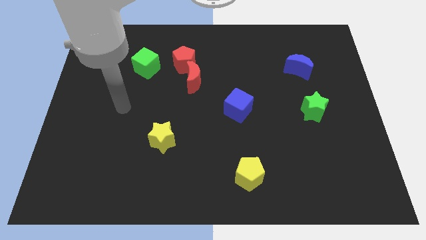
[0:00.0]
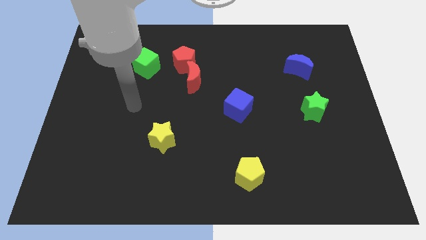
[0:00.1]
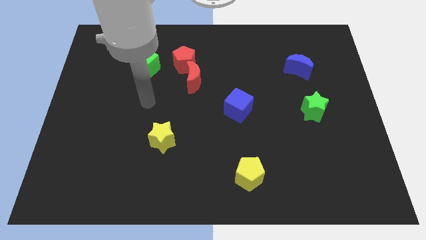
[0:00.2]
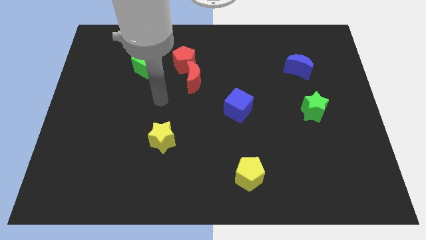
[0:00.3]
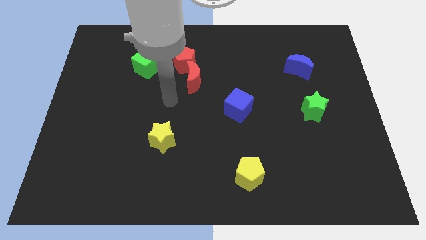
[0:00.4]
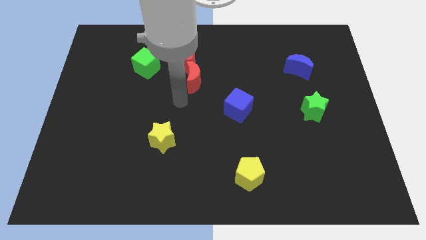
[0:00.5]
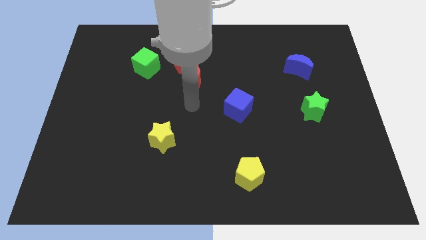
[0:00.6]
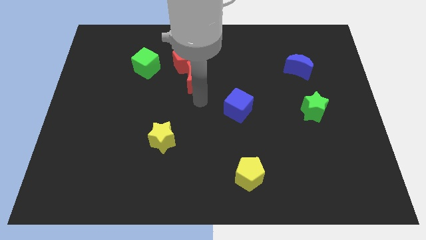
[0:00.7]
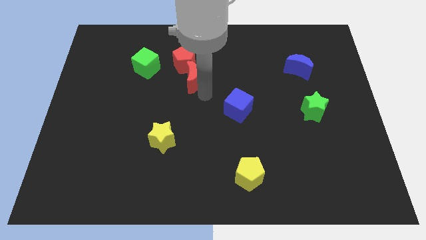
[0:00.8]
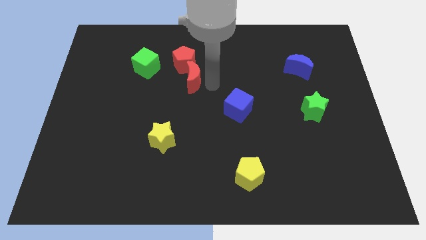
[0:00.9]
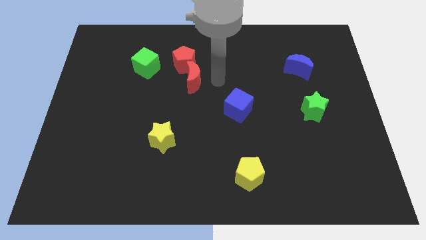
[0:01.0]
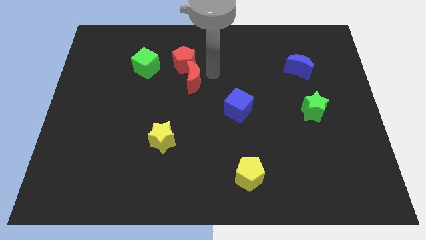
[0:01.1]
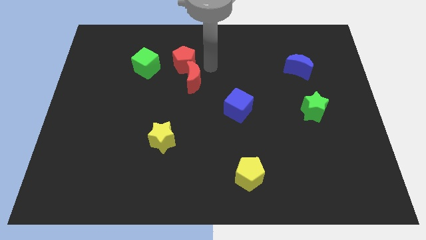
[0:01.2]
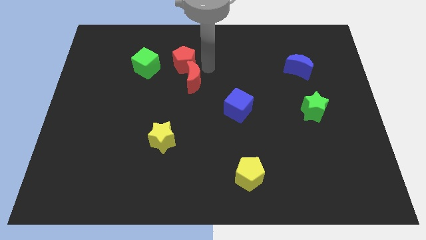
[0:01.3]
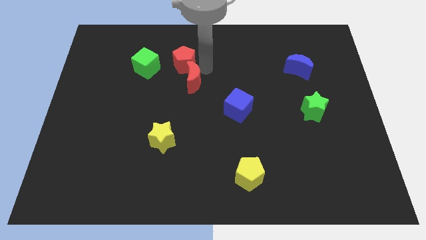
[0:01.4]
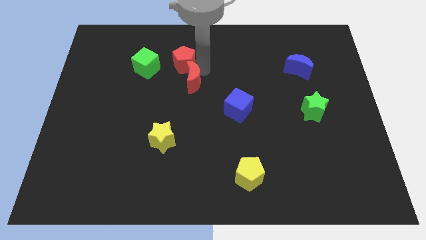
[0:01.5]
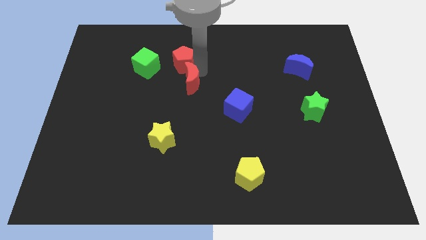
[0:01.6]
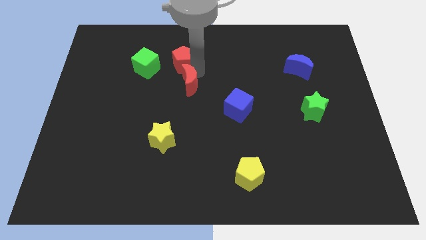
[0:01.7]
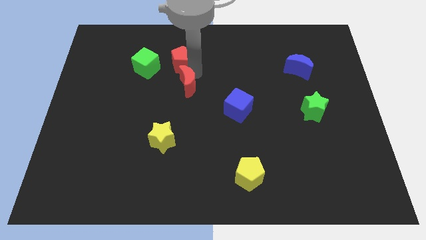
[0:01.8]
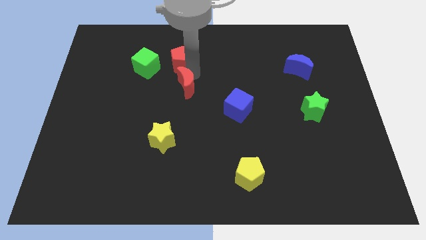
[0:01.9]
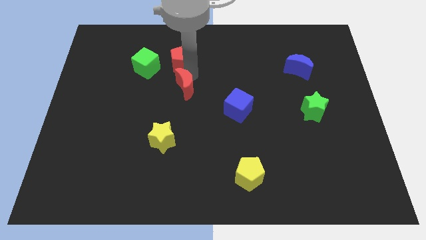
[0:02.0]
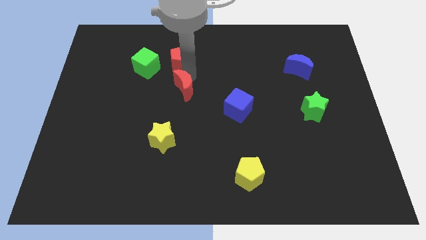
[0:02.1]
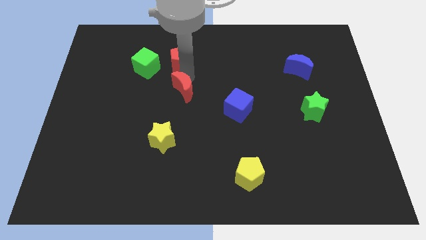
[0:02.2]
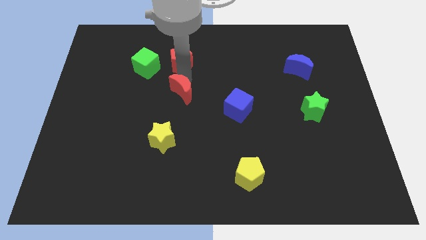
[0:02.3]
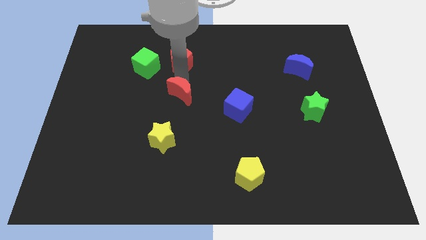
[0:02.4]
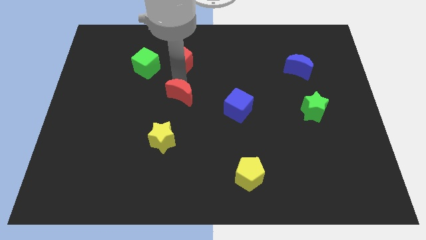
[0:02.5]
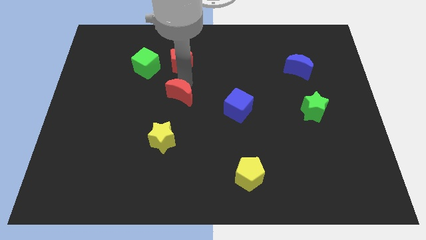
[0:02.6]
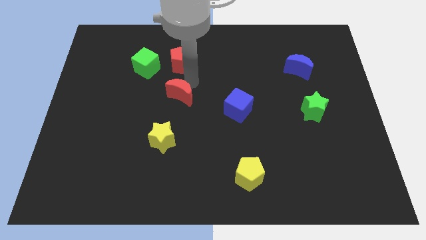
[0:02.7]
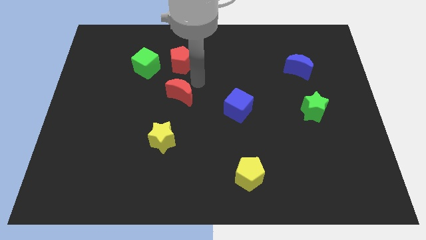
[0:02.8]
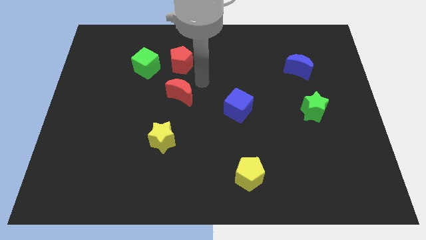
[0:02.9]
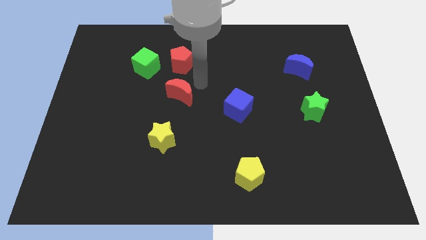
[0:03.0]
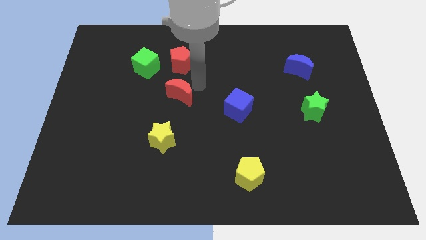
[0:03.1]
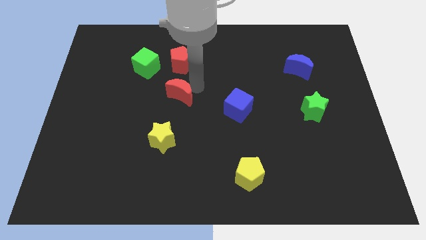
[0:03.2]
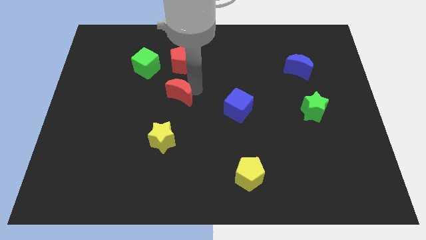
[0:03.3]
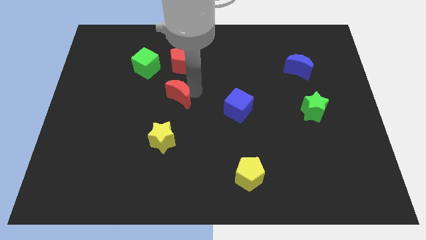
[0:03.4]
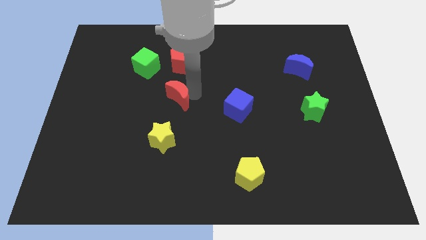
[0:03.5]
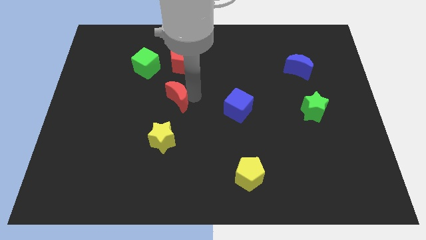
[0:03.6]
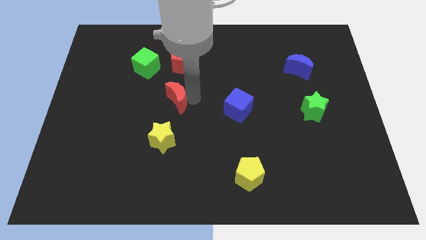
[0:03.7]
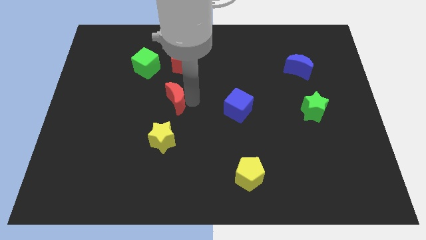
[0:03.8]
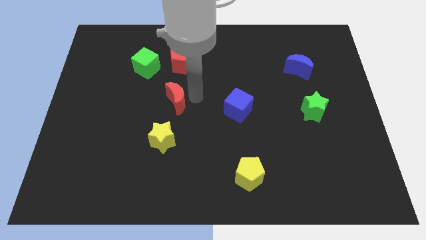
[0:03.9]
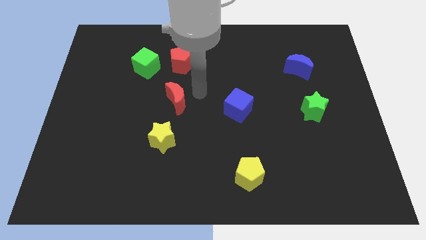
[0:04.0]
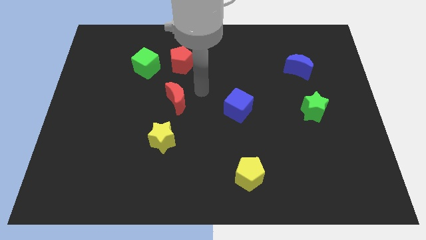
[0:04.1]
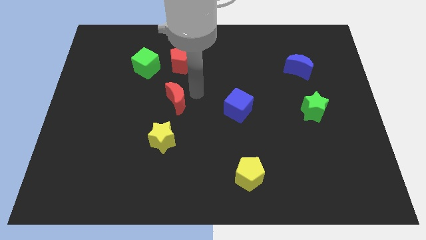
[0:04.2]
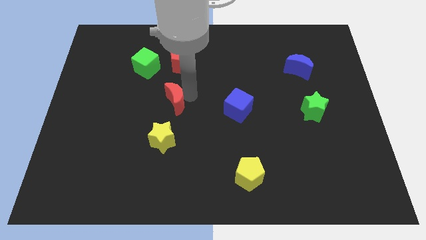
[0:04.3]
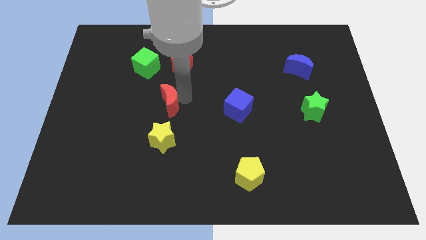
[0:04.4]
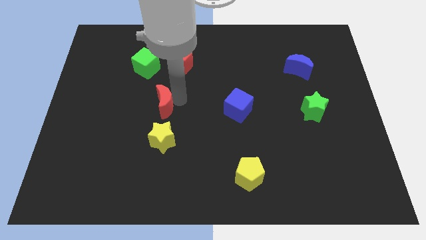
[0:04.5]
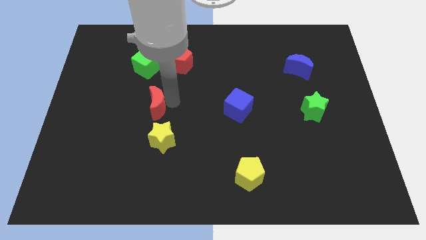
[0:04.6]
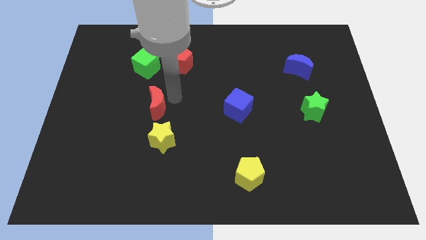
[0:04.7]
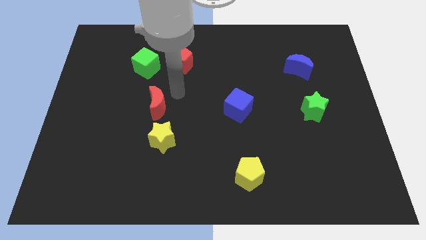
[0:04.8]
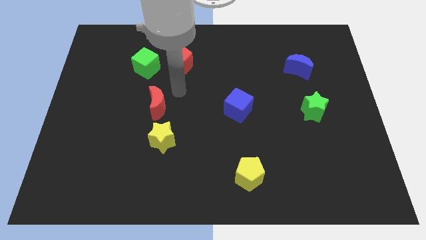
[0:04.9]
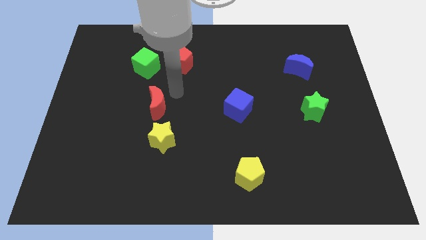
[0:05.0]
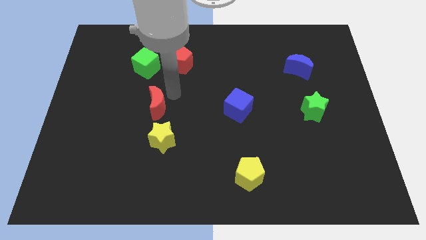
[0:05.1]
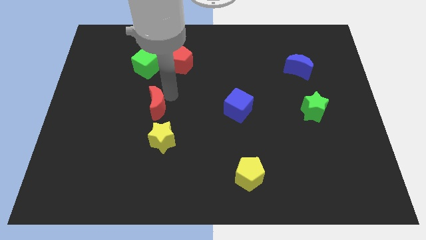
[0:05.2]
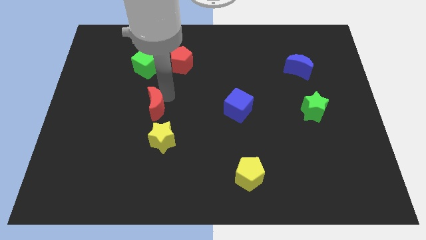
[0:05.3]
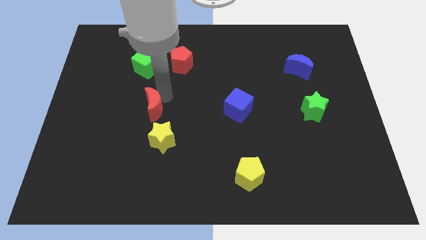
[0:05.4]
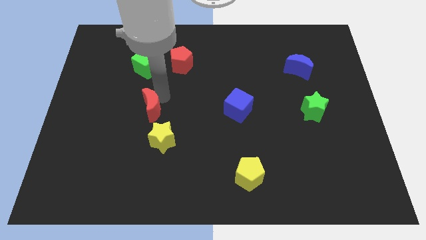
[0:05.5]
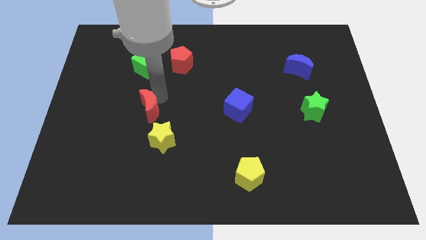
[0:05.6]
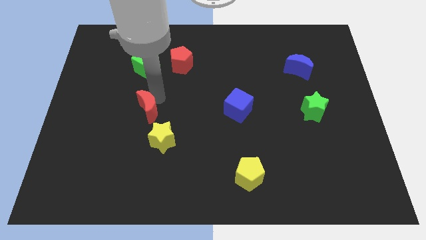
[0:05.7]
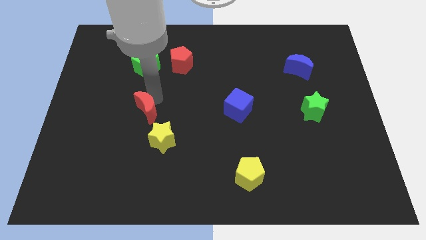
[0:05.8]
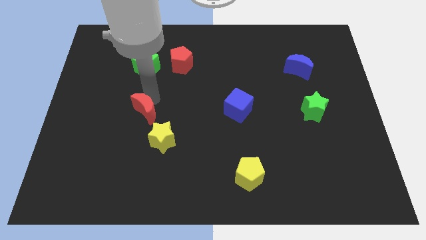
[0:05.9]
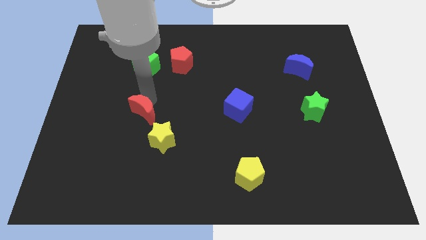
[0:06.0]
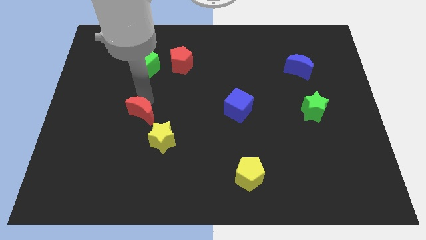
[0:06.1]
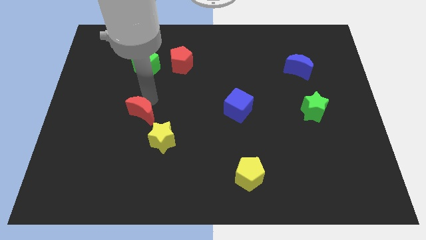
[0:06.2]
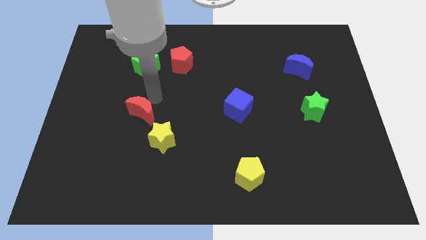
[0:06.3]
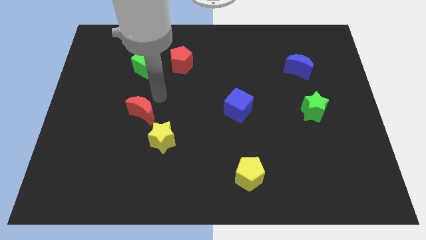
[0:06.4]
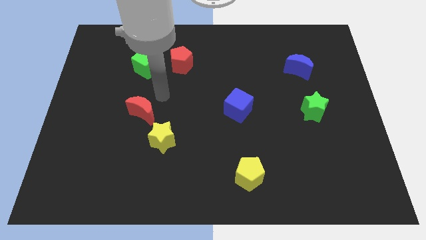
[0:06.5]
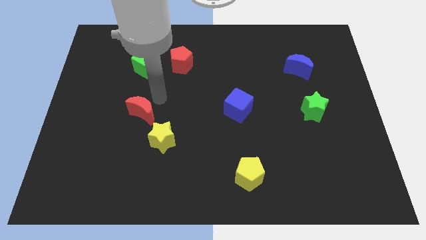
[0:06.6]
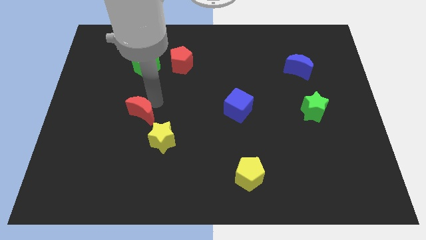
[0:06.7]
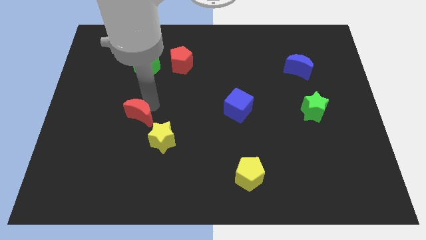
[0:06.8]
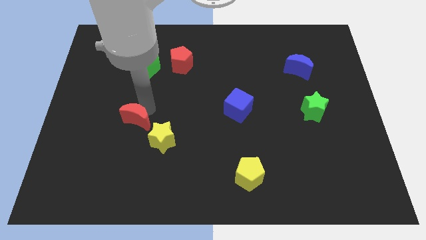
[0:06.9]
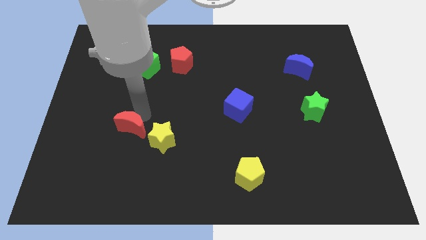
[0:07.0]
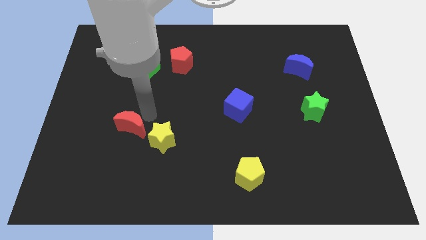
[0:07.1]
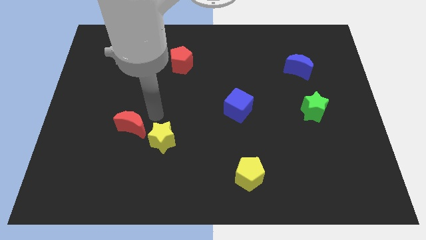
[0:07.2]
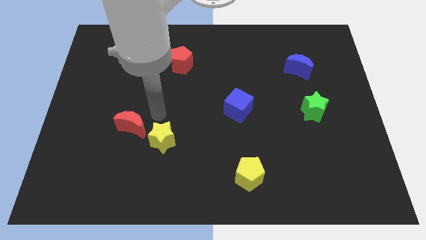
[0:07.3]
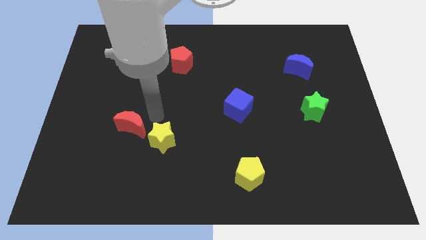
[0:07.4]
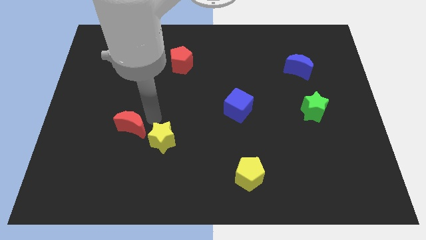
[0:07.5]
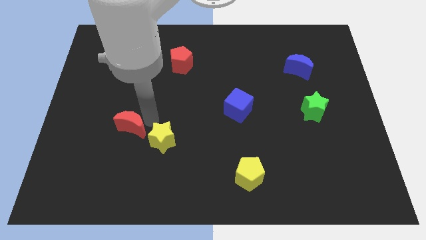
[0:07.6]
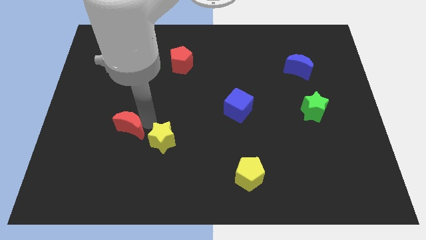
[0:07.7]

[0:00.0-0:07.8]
push the red moon downwards and left

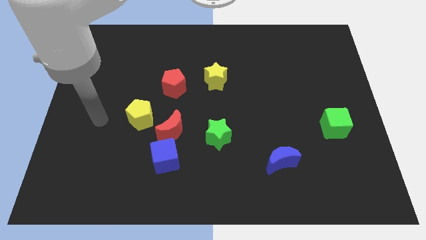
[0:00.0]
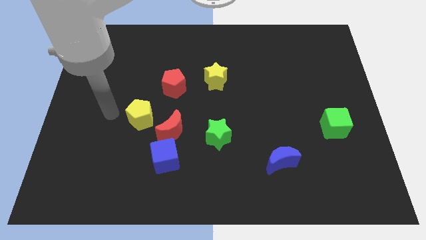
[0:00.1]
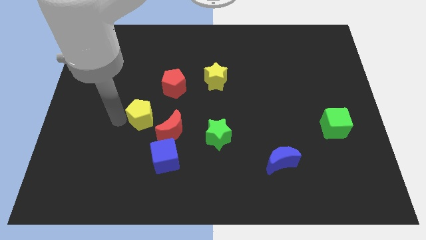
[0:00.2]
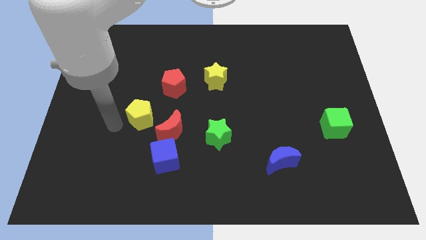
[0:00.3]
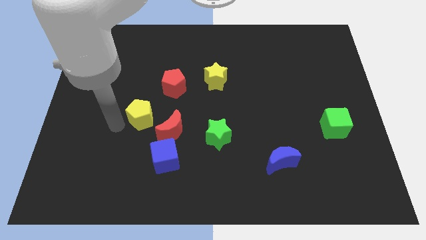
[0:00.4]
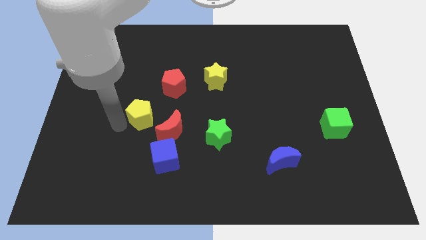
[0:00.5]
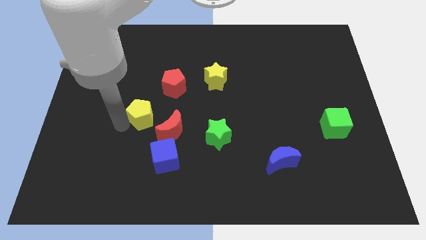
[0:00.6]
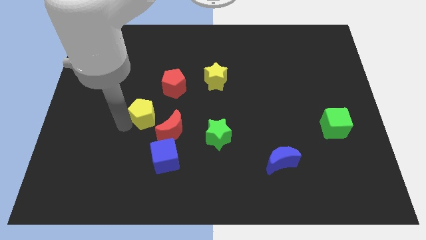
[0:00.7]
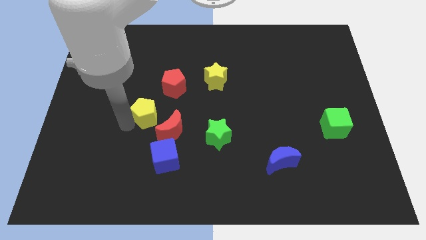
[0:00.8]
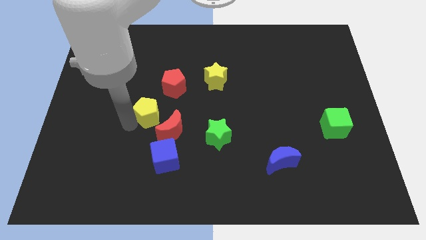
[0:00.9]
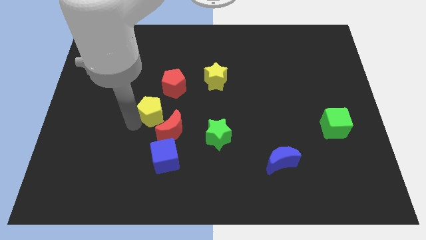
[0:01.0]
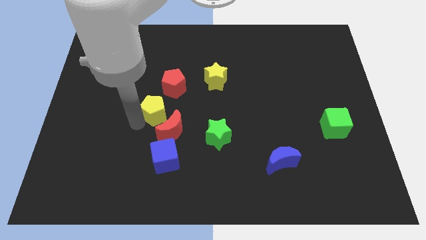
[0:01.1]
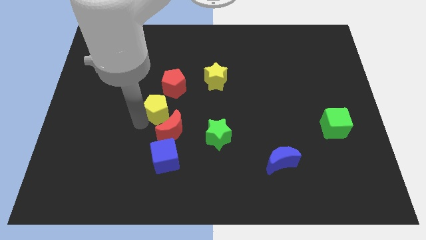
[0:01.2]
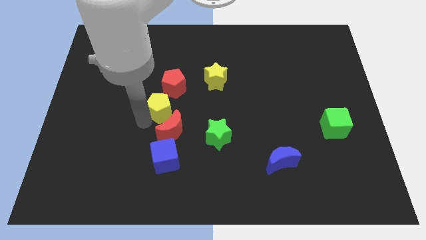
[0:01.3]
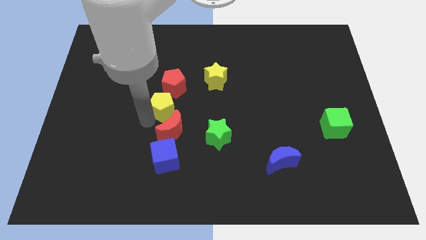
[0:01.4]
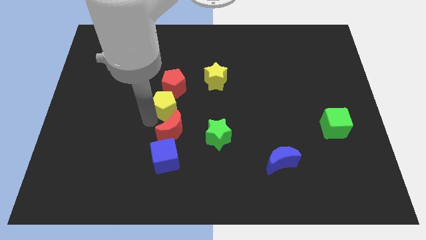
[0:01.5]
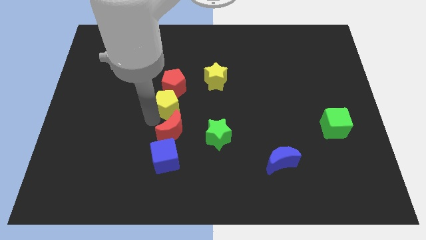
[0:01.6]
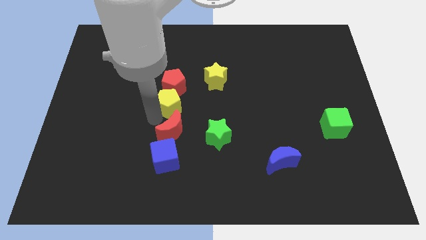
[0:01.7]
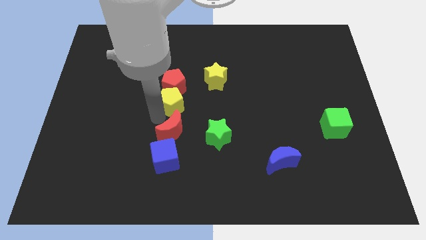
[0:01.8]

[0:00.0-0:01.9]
slide the yellow pentagon up and then to the right a little
